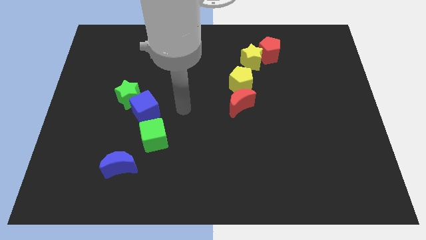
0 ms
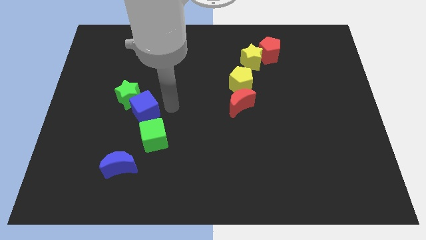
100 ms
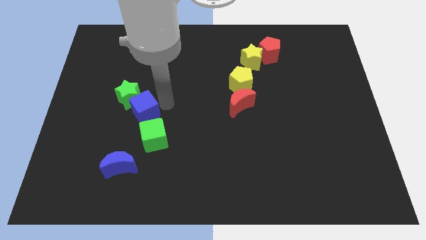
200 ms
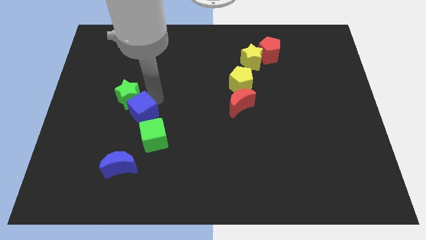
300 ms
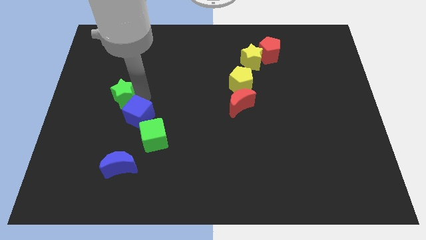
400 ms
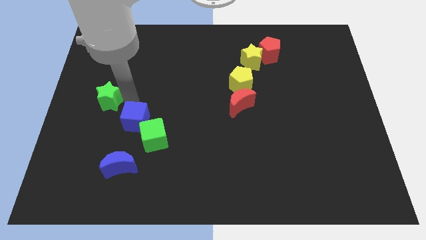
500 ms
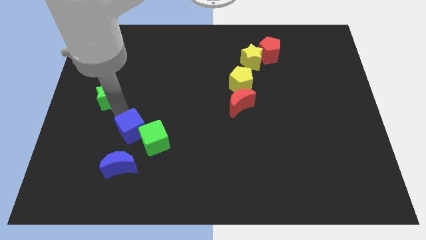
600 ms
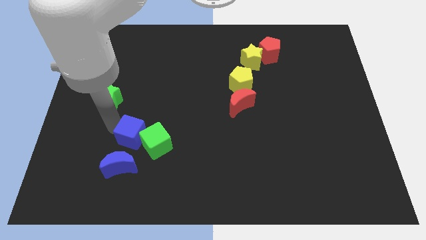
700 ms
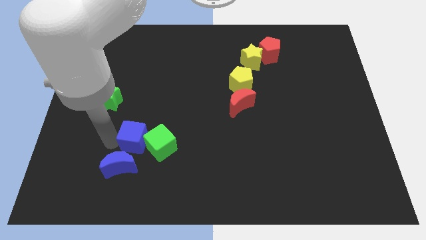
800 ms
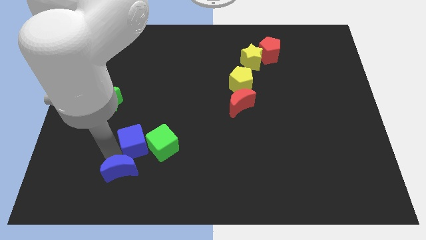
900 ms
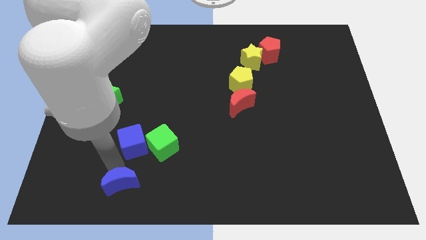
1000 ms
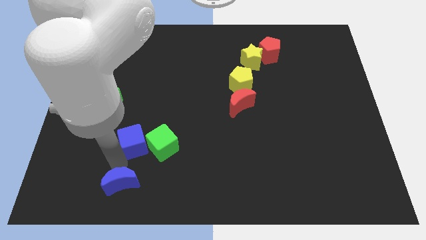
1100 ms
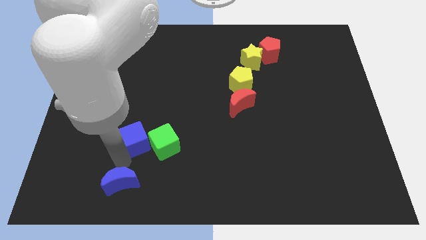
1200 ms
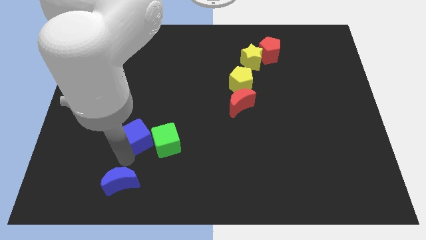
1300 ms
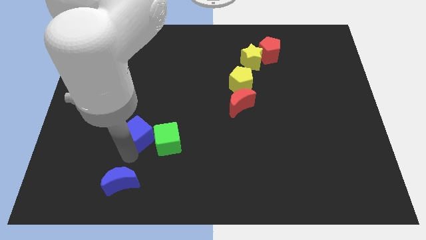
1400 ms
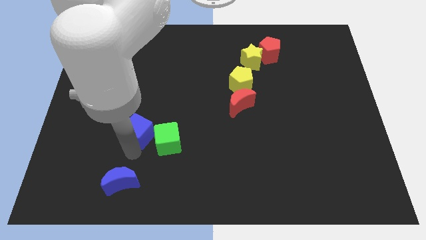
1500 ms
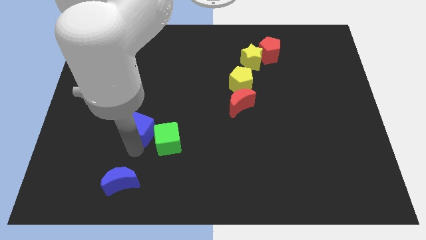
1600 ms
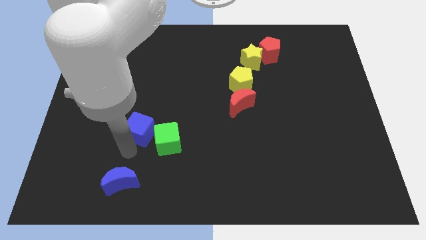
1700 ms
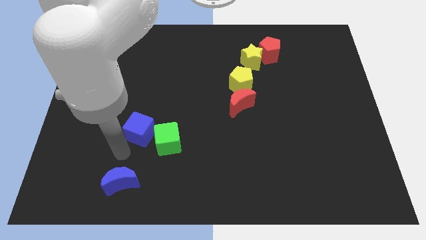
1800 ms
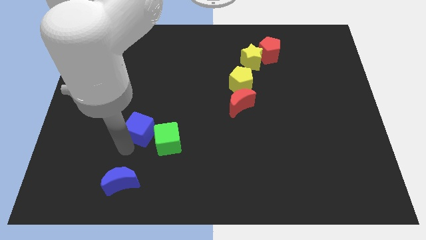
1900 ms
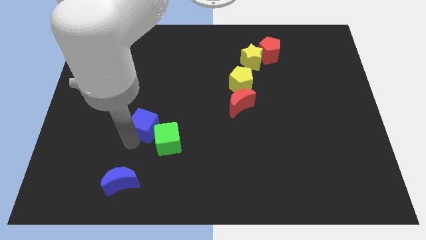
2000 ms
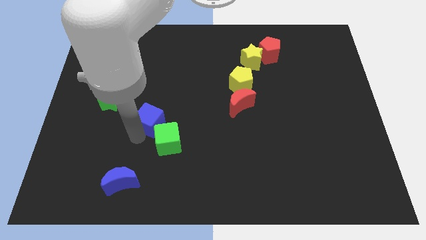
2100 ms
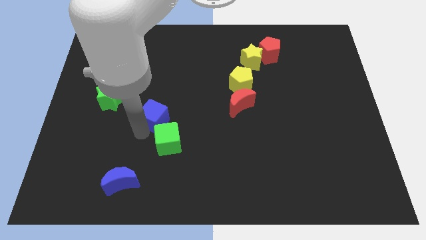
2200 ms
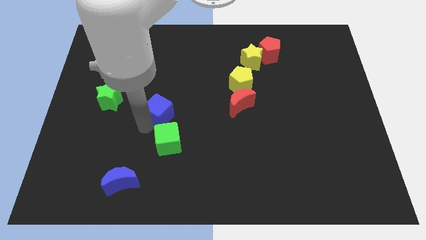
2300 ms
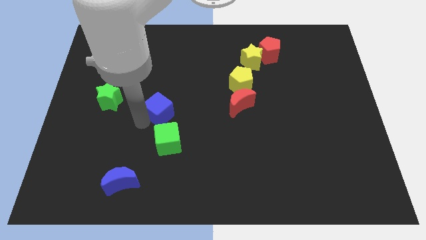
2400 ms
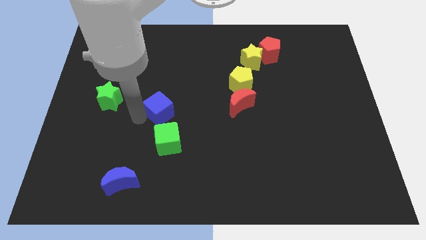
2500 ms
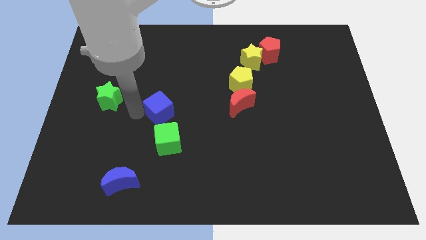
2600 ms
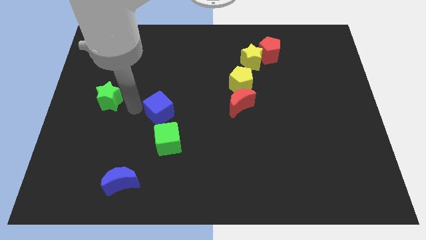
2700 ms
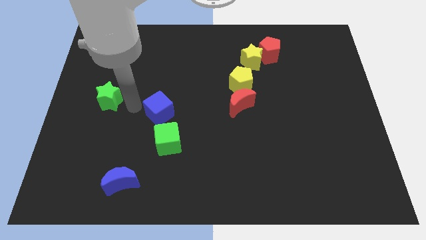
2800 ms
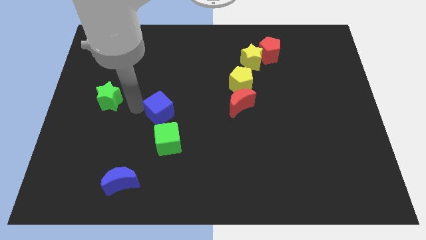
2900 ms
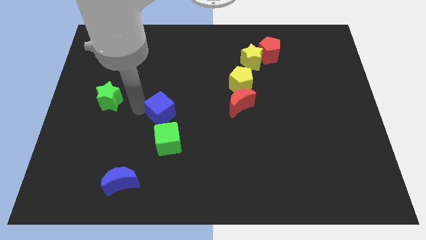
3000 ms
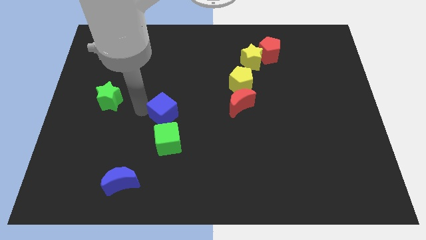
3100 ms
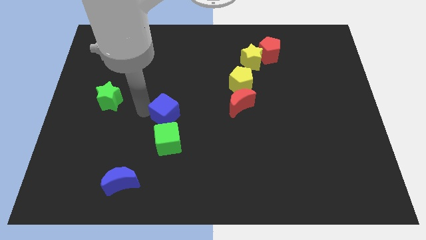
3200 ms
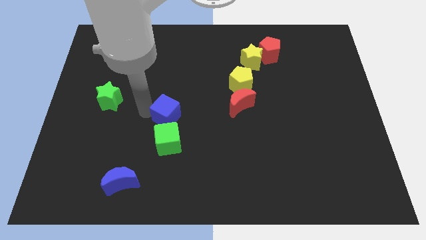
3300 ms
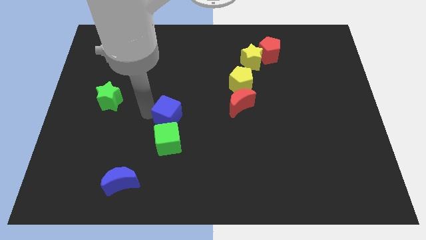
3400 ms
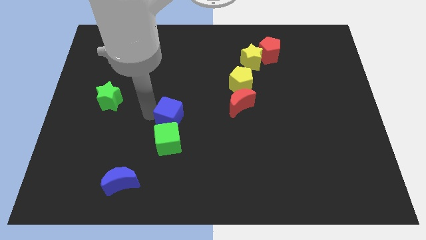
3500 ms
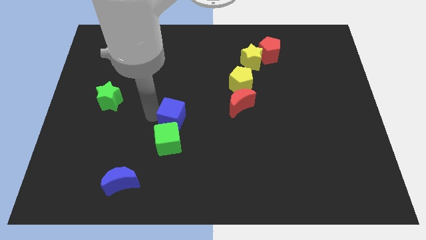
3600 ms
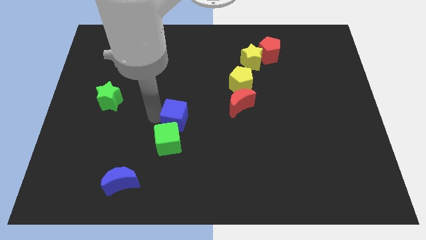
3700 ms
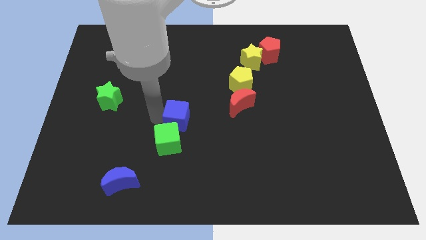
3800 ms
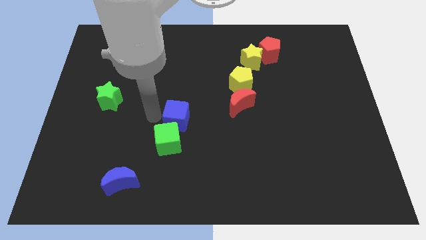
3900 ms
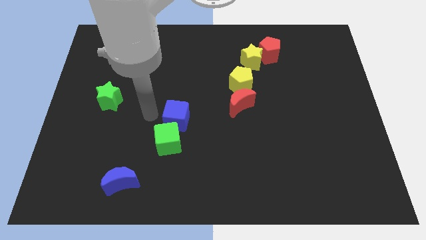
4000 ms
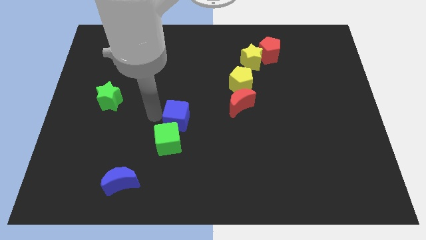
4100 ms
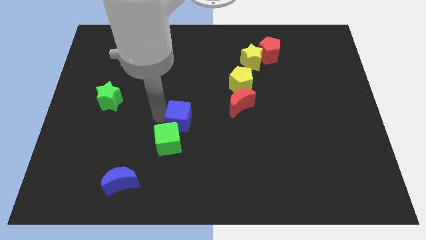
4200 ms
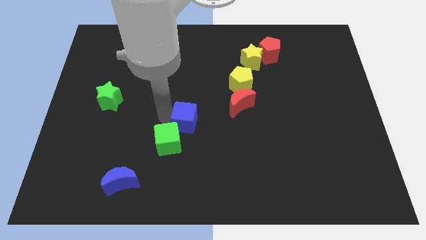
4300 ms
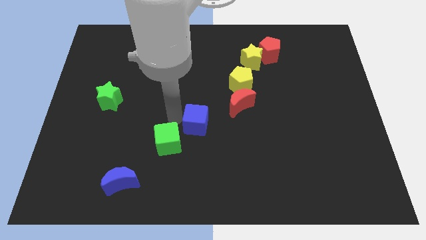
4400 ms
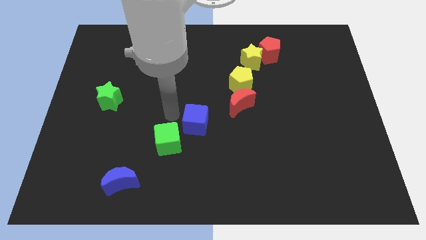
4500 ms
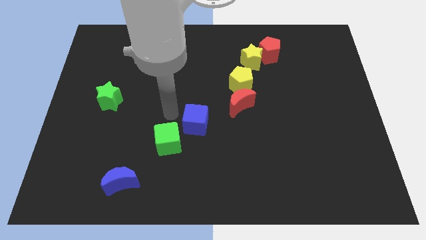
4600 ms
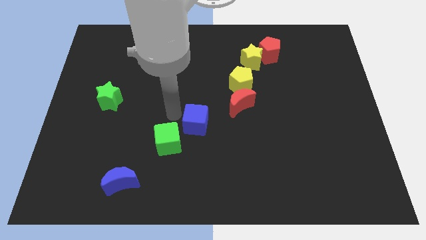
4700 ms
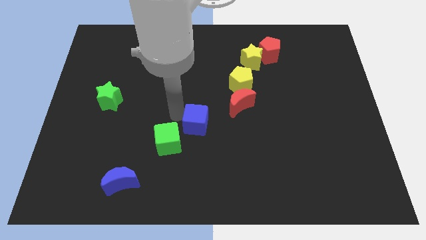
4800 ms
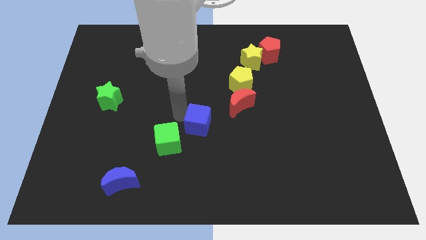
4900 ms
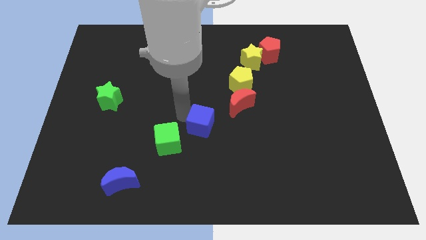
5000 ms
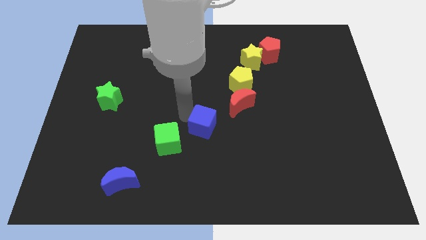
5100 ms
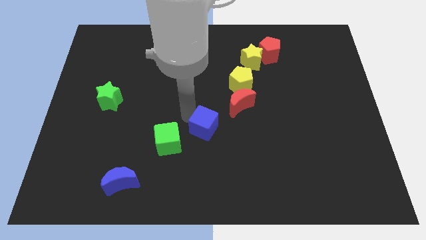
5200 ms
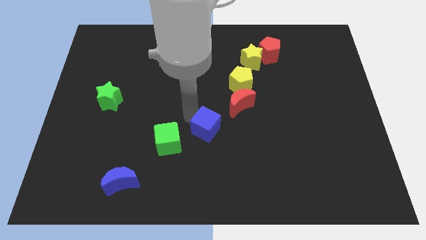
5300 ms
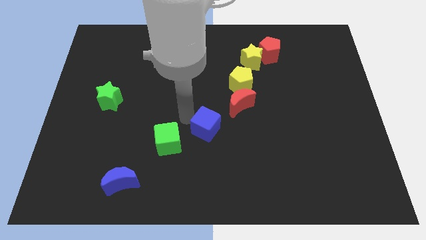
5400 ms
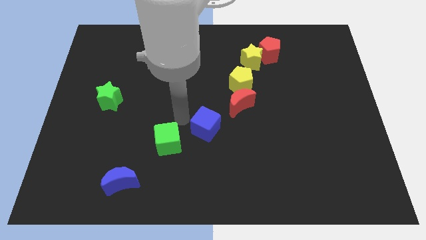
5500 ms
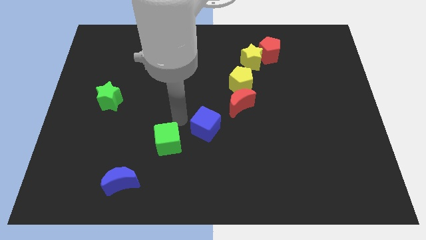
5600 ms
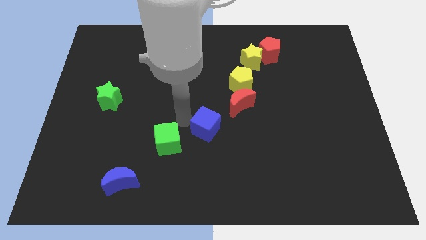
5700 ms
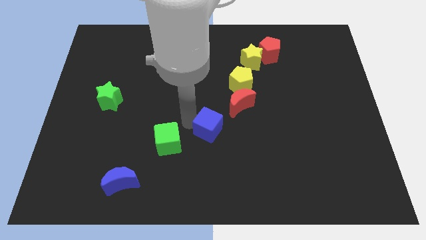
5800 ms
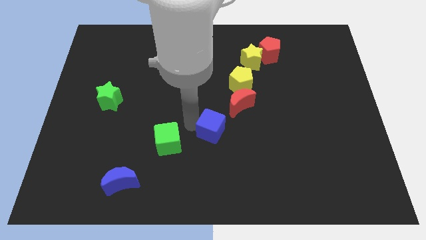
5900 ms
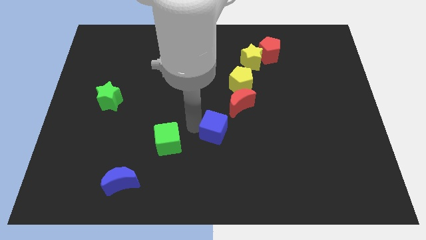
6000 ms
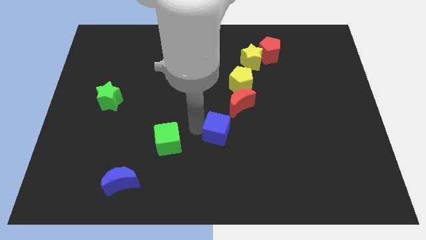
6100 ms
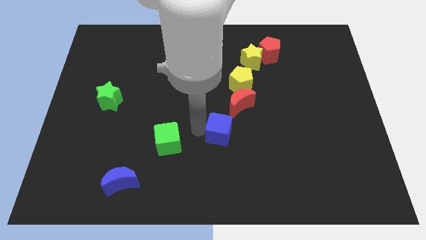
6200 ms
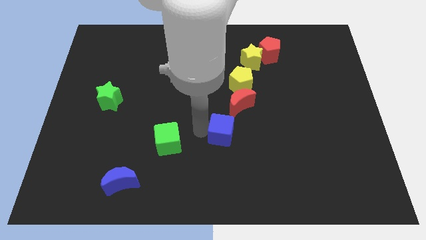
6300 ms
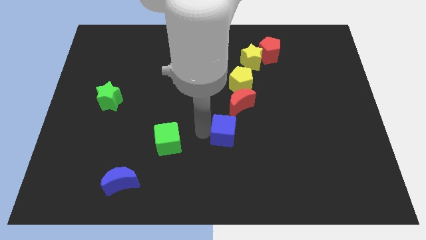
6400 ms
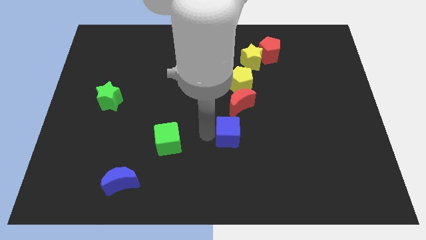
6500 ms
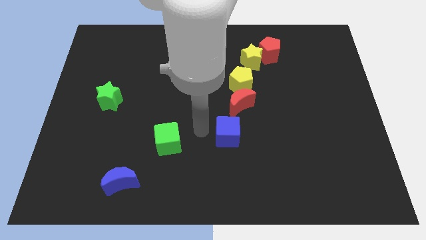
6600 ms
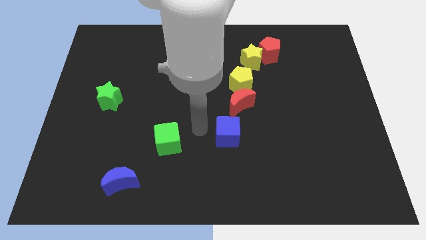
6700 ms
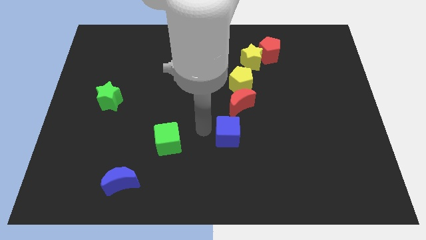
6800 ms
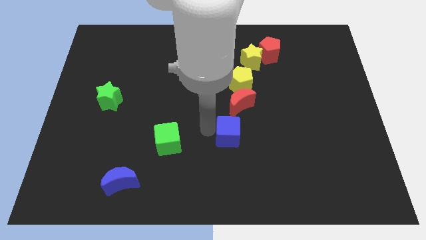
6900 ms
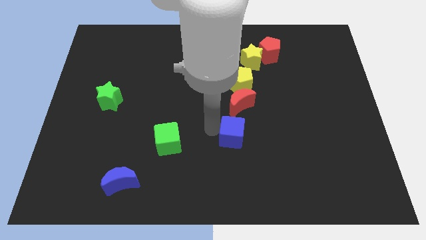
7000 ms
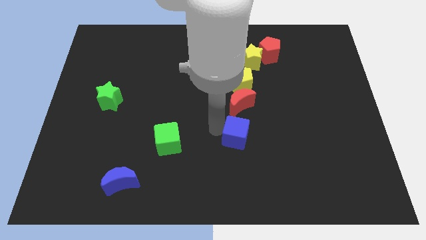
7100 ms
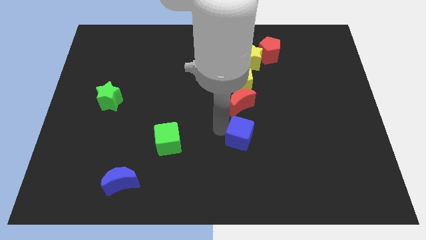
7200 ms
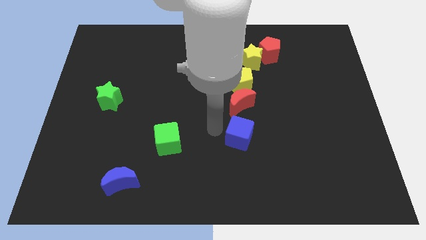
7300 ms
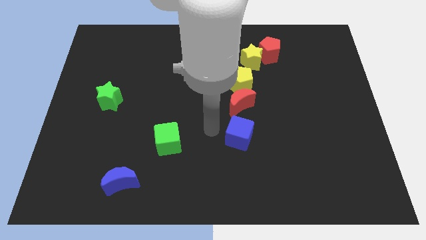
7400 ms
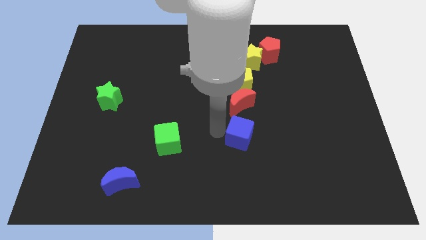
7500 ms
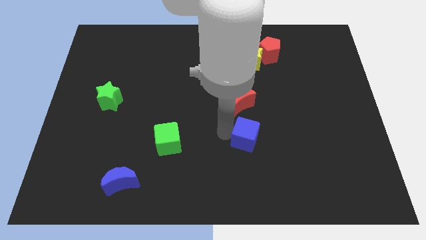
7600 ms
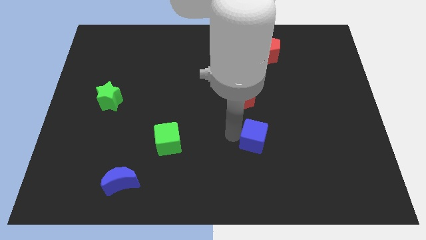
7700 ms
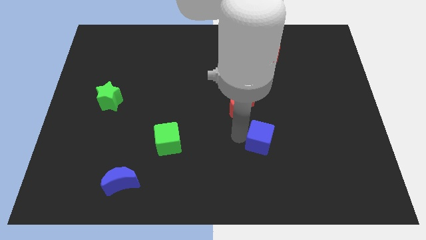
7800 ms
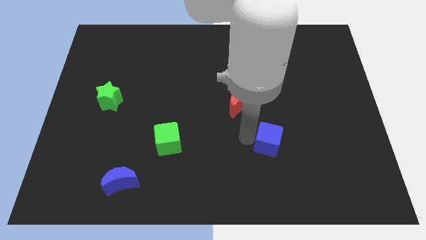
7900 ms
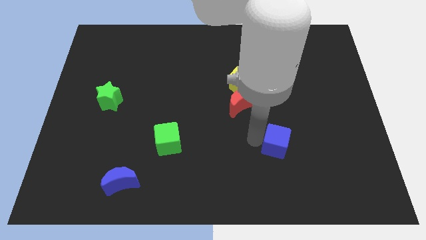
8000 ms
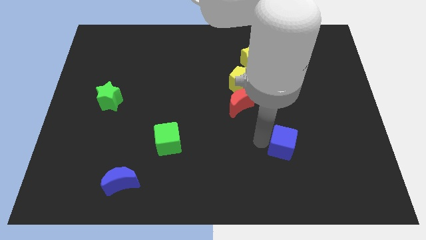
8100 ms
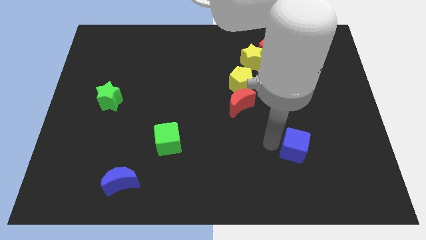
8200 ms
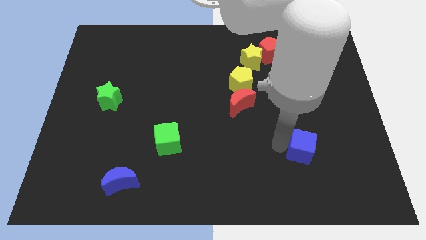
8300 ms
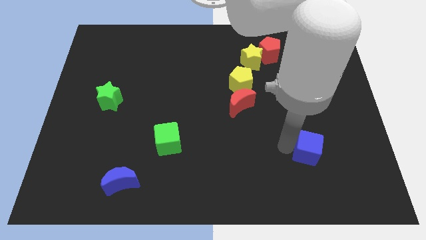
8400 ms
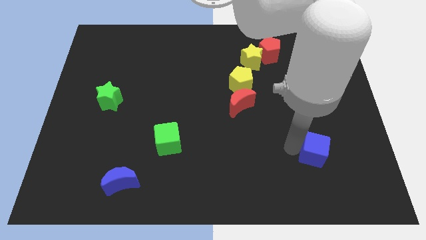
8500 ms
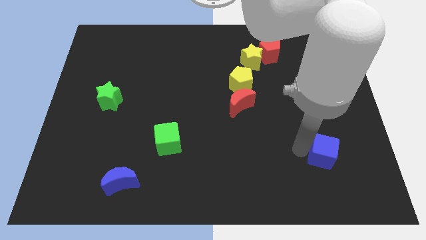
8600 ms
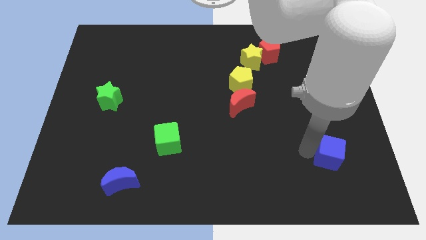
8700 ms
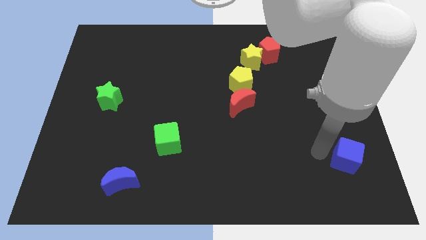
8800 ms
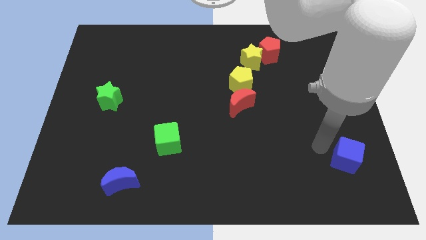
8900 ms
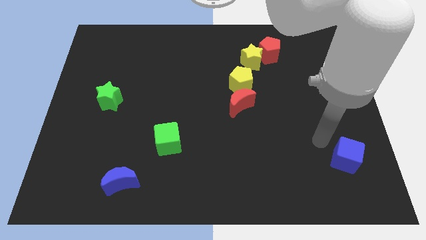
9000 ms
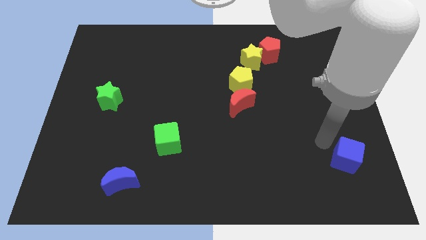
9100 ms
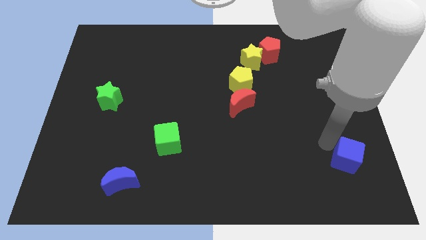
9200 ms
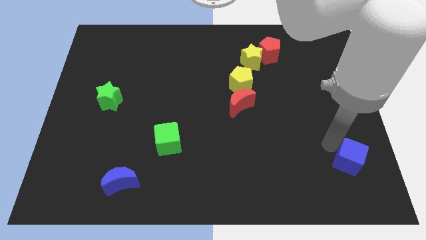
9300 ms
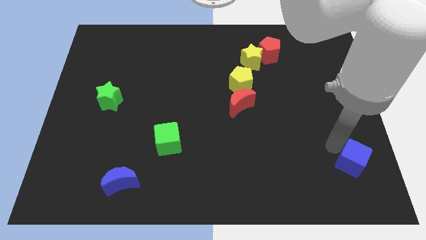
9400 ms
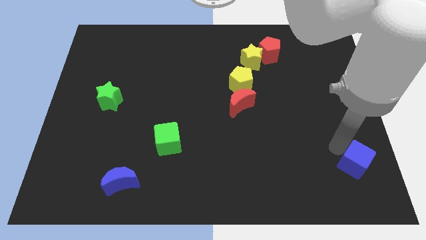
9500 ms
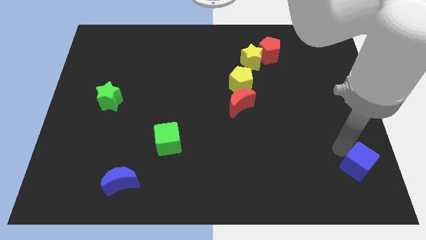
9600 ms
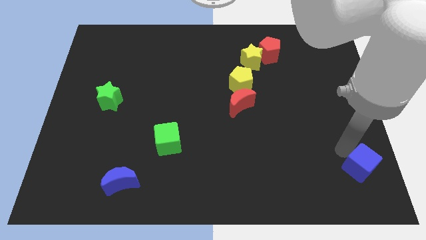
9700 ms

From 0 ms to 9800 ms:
push the blue cube to the bottom right corner
